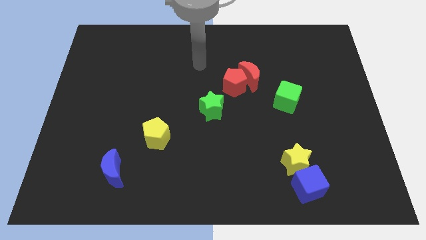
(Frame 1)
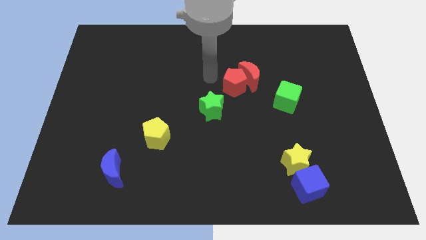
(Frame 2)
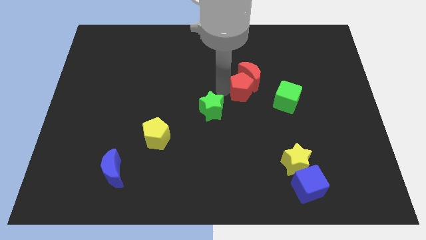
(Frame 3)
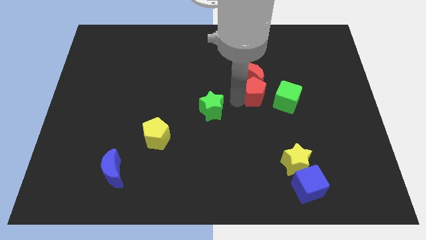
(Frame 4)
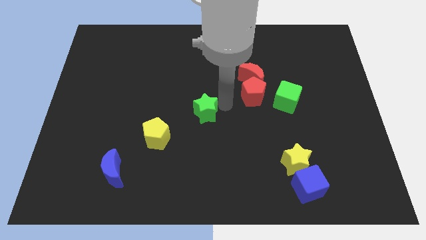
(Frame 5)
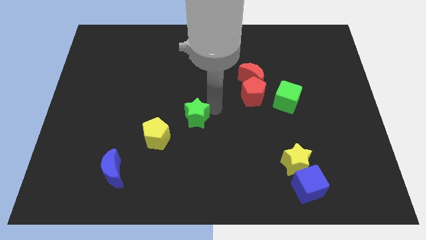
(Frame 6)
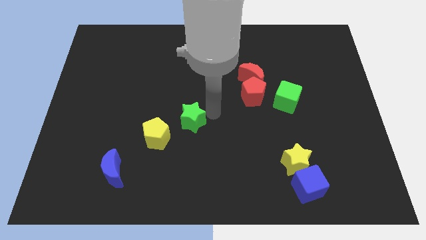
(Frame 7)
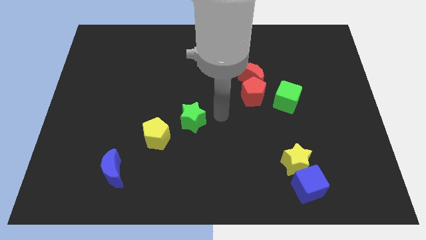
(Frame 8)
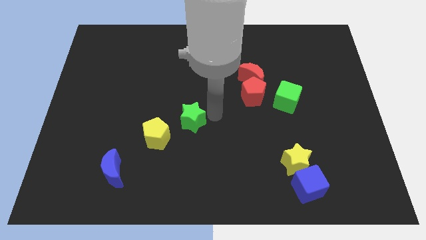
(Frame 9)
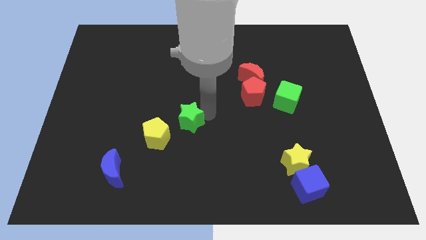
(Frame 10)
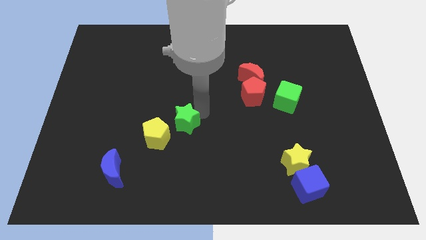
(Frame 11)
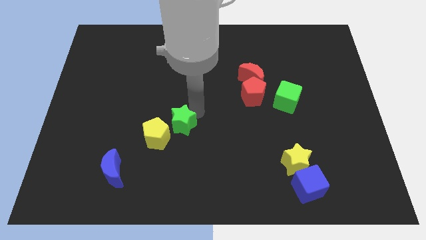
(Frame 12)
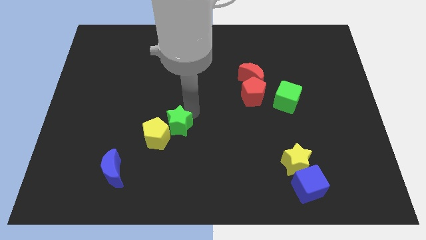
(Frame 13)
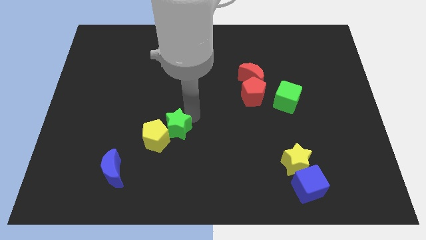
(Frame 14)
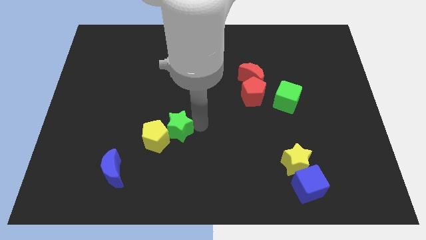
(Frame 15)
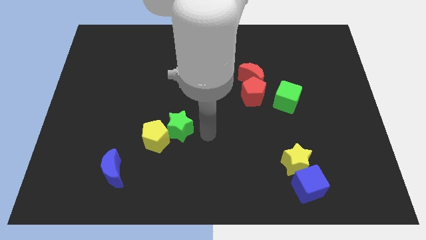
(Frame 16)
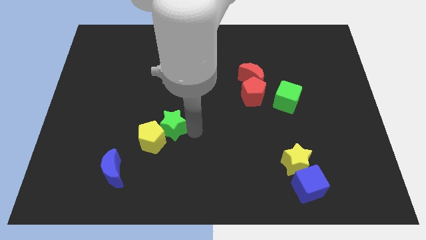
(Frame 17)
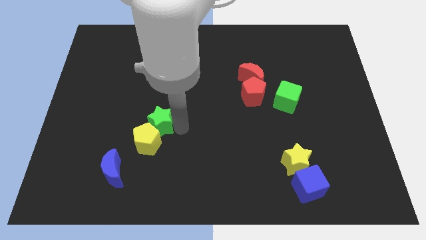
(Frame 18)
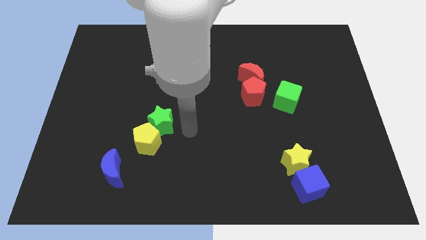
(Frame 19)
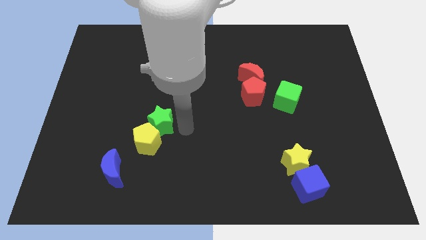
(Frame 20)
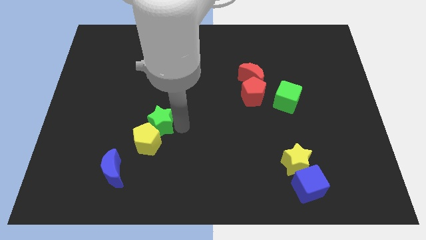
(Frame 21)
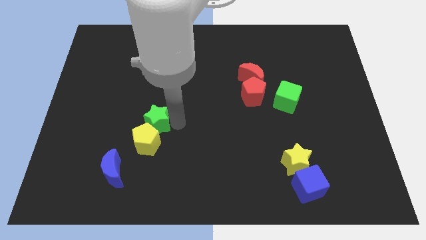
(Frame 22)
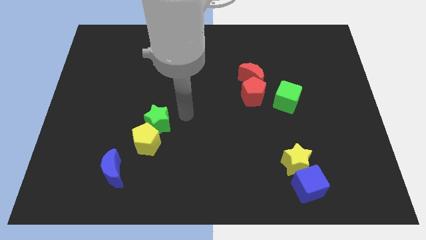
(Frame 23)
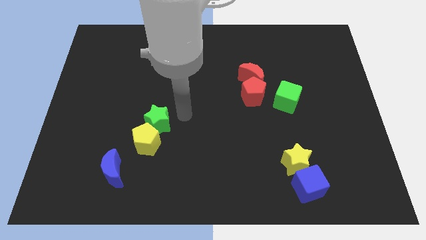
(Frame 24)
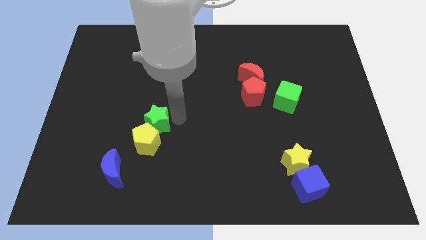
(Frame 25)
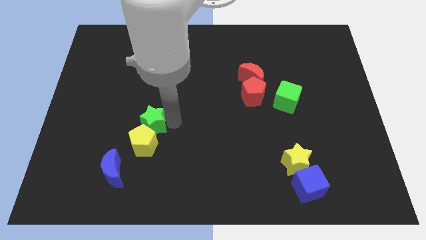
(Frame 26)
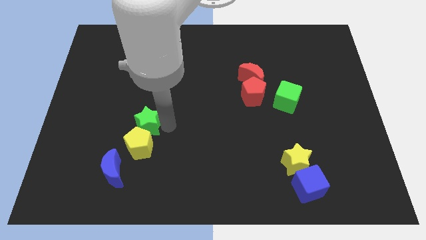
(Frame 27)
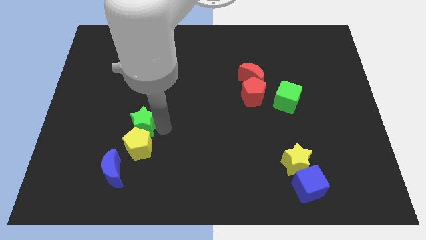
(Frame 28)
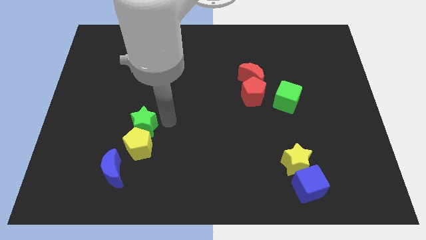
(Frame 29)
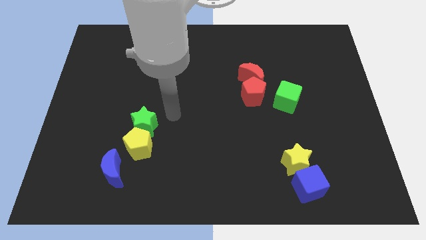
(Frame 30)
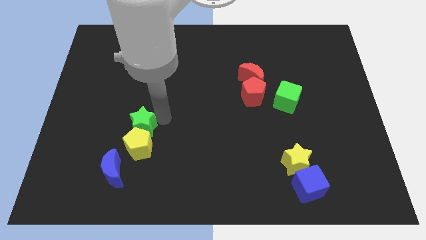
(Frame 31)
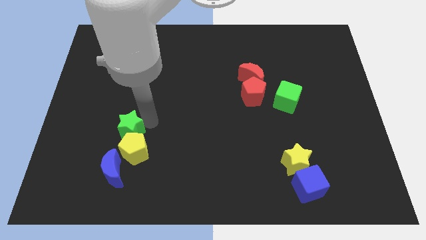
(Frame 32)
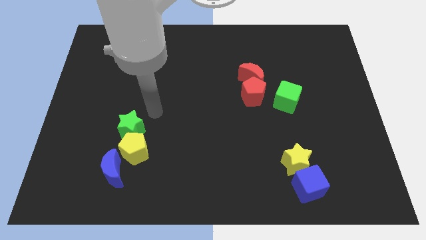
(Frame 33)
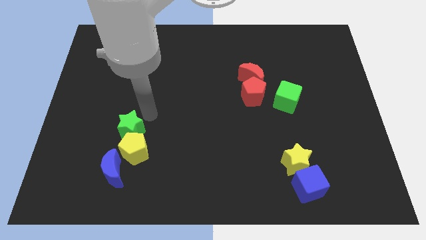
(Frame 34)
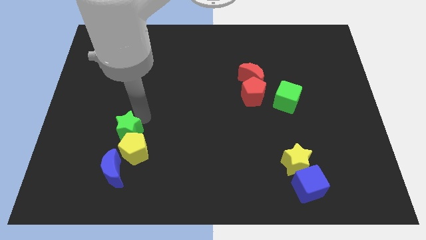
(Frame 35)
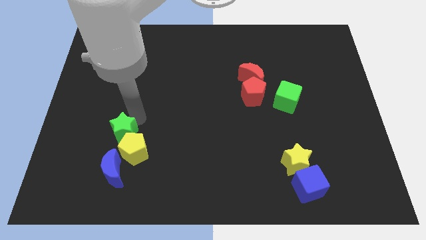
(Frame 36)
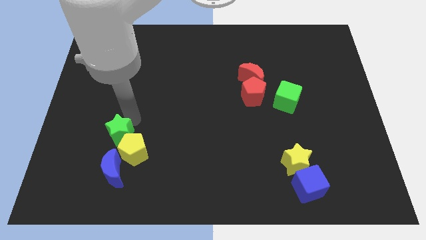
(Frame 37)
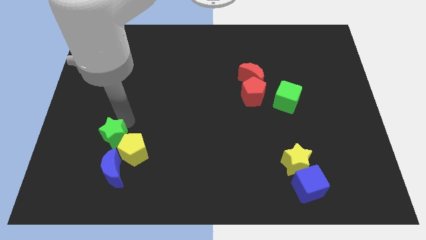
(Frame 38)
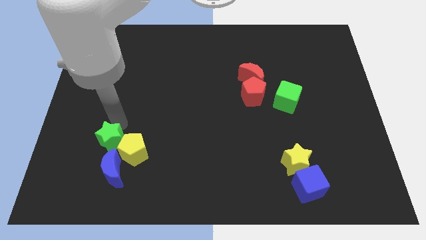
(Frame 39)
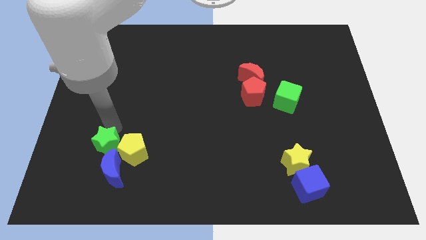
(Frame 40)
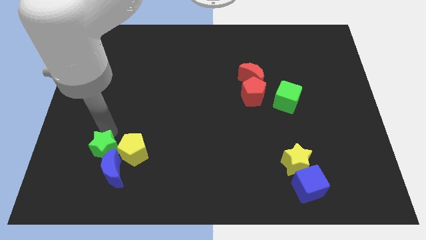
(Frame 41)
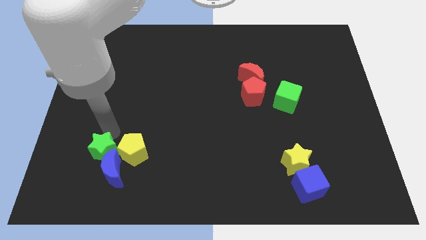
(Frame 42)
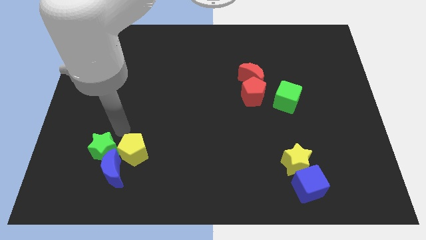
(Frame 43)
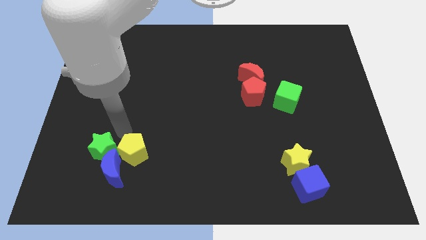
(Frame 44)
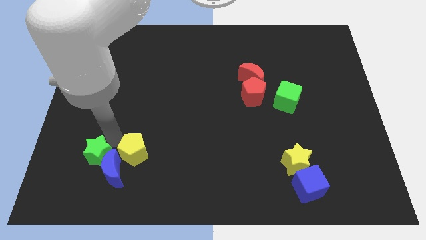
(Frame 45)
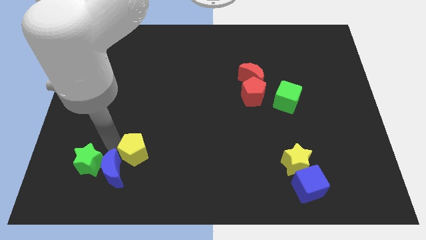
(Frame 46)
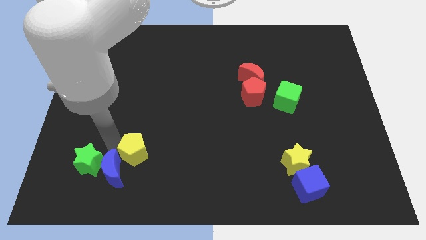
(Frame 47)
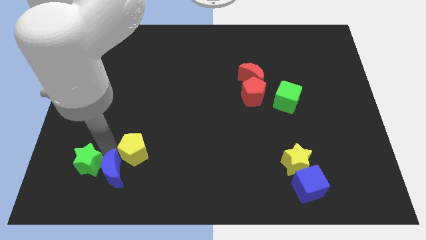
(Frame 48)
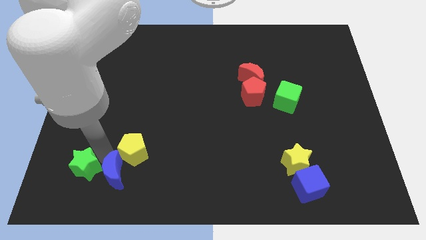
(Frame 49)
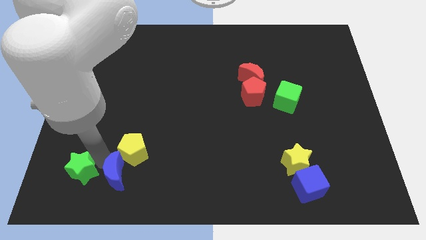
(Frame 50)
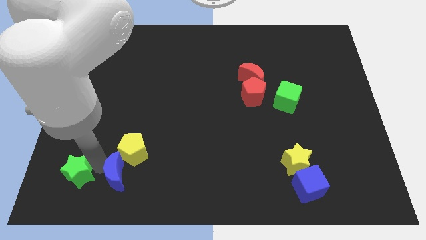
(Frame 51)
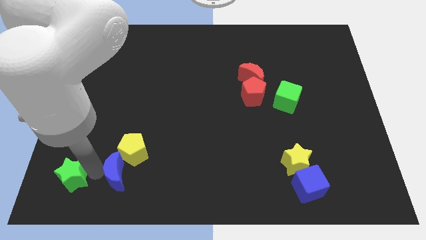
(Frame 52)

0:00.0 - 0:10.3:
put the green star to the bottom left corner
